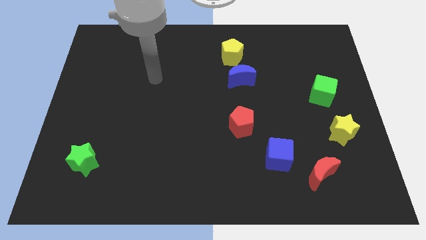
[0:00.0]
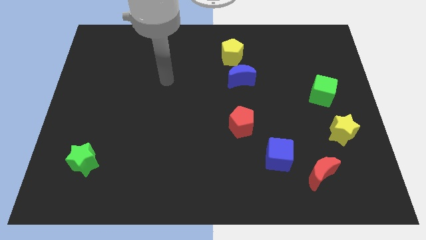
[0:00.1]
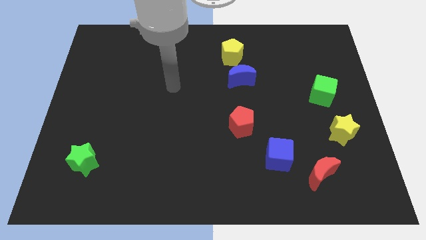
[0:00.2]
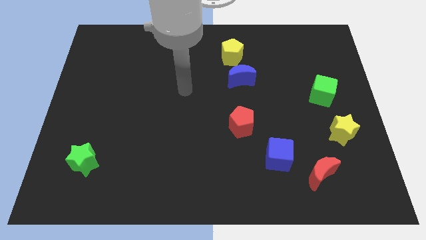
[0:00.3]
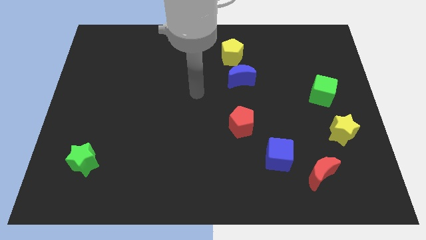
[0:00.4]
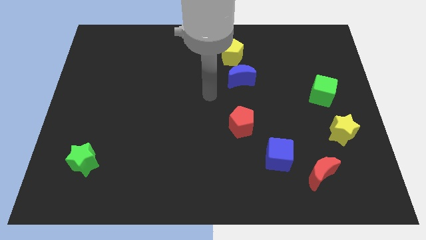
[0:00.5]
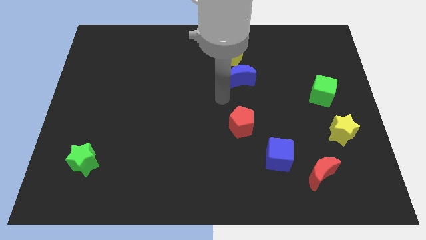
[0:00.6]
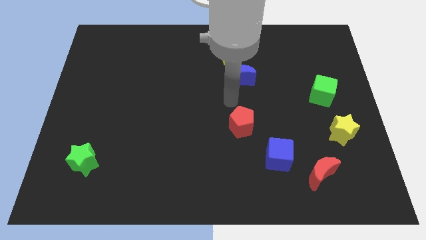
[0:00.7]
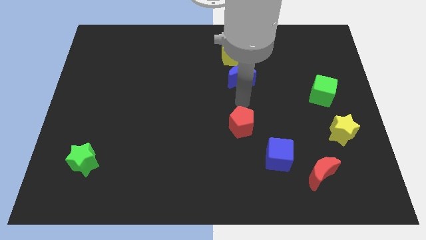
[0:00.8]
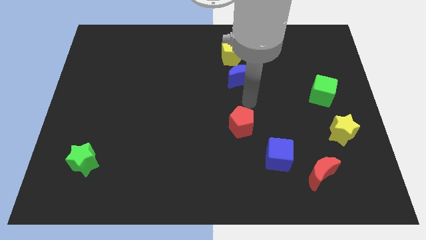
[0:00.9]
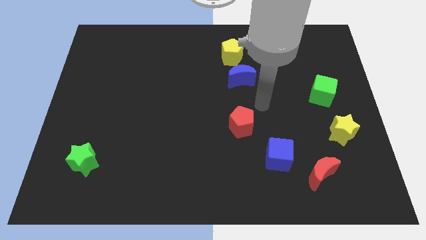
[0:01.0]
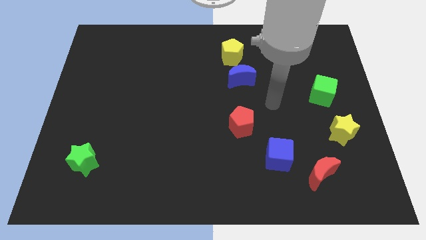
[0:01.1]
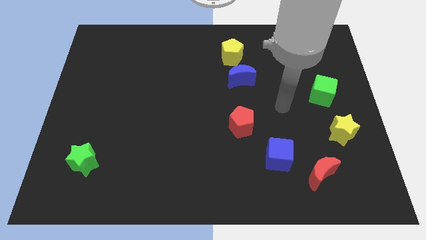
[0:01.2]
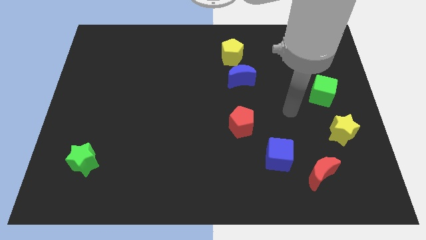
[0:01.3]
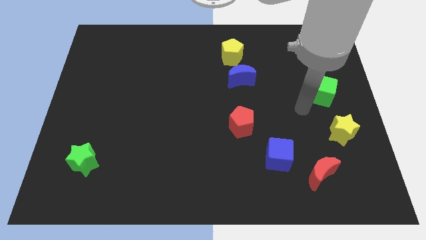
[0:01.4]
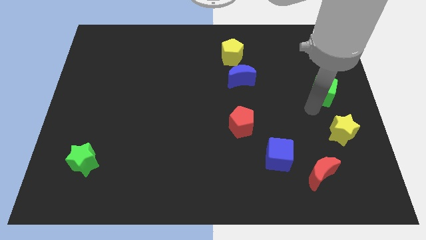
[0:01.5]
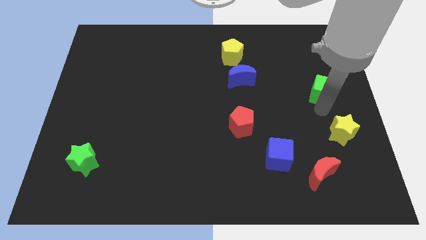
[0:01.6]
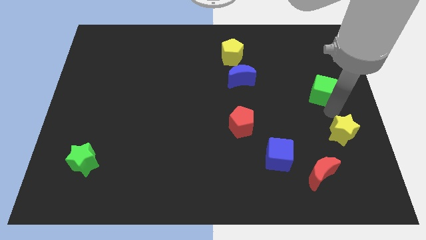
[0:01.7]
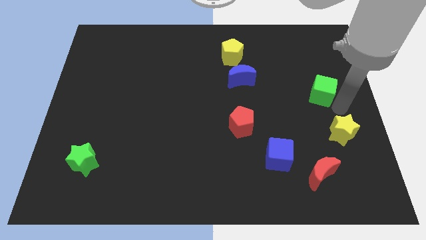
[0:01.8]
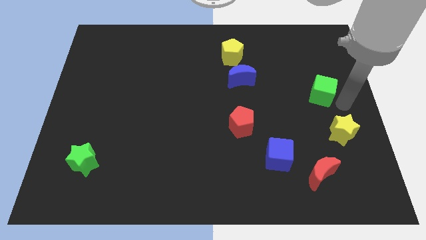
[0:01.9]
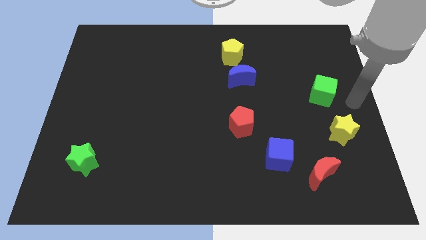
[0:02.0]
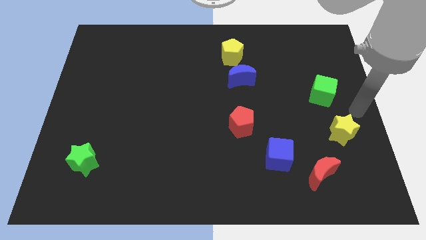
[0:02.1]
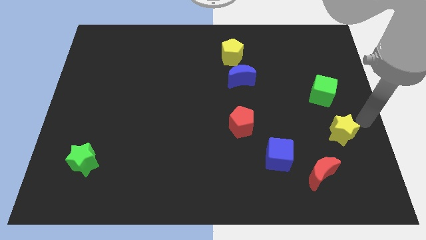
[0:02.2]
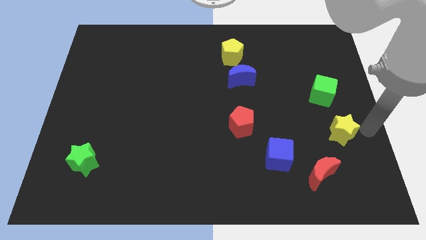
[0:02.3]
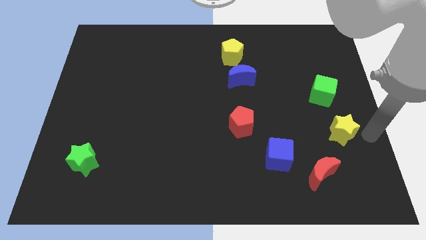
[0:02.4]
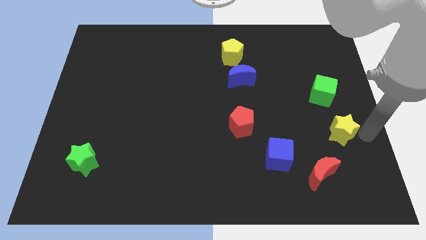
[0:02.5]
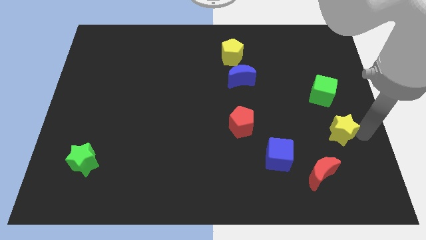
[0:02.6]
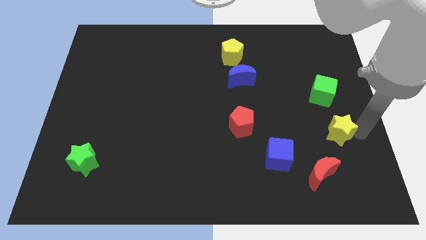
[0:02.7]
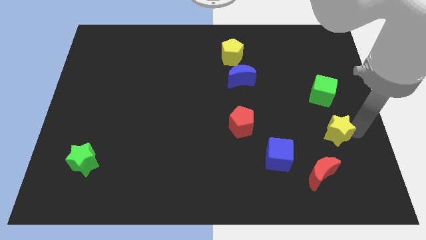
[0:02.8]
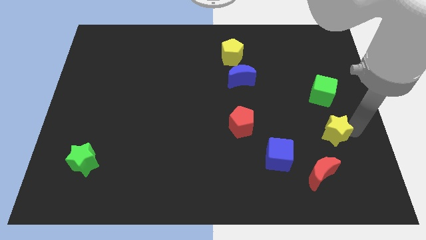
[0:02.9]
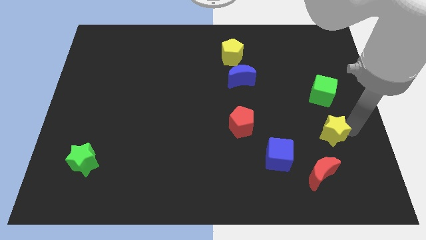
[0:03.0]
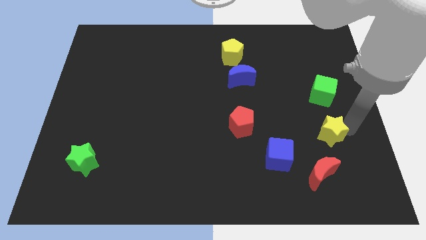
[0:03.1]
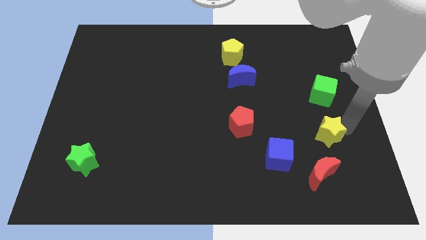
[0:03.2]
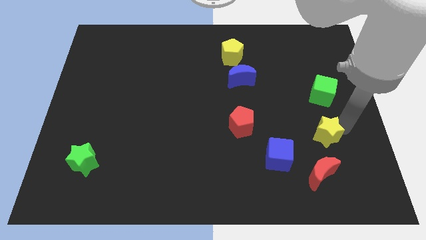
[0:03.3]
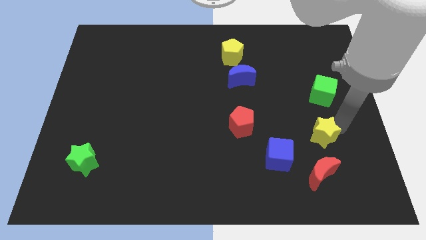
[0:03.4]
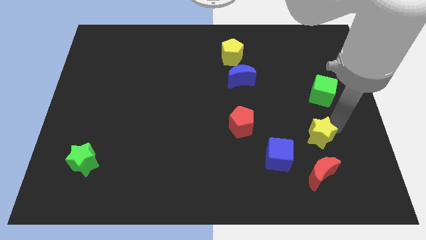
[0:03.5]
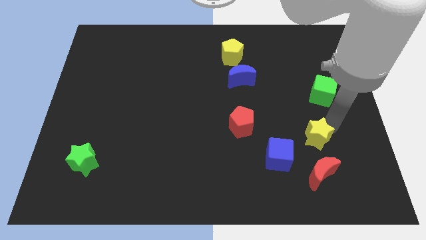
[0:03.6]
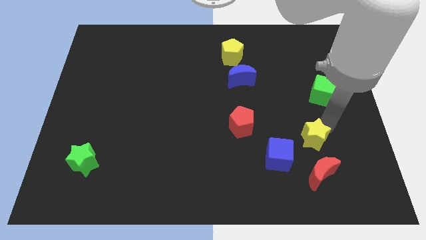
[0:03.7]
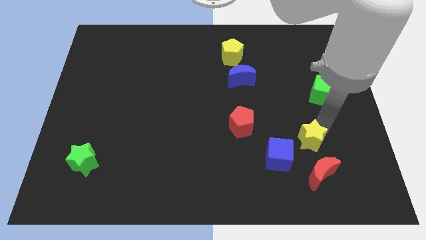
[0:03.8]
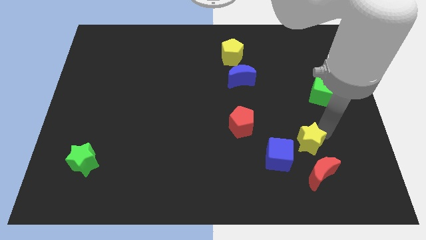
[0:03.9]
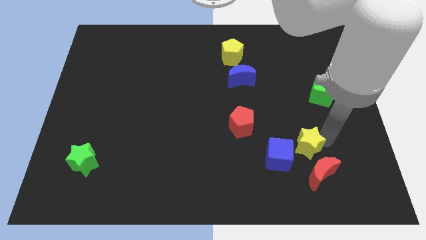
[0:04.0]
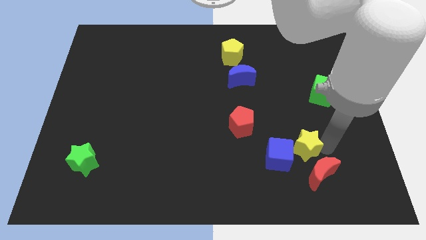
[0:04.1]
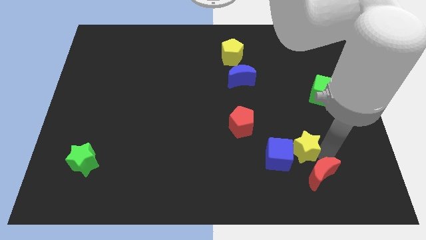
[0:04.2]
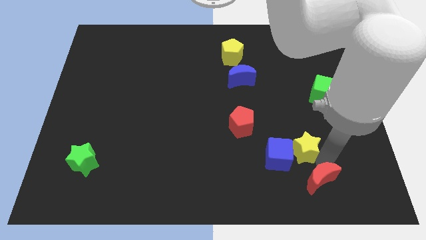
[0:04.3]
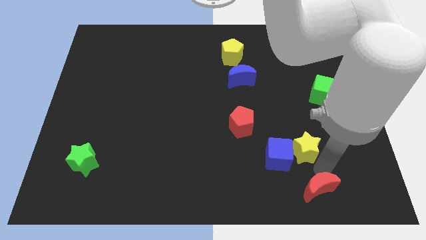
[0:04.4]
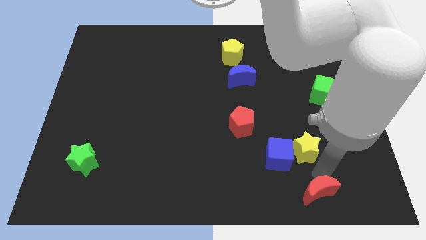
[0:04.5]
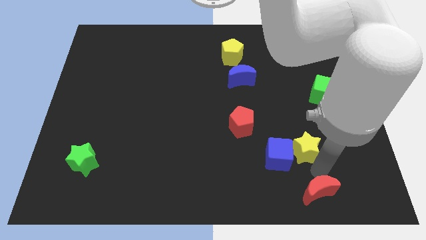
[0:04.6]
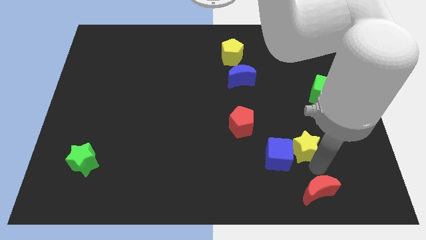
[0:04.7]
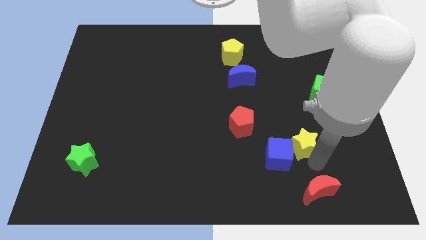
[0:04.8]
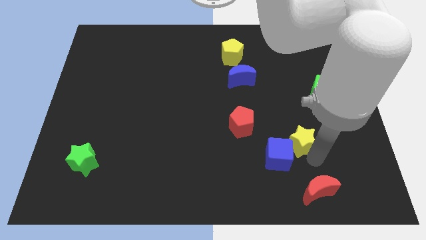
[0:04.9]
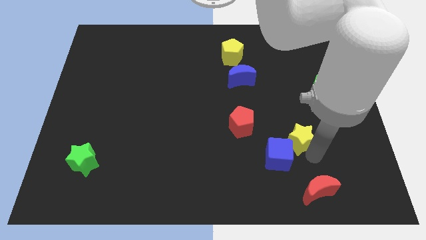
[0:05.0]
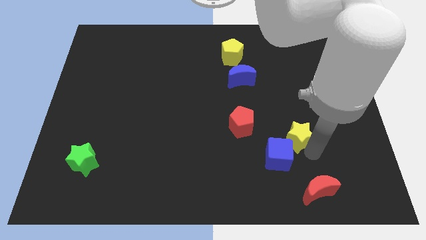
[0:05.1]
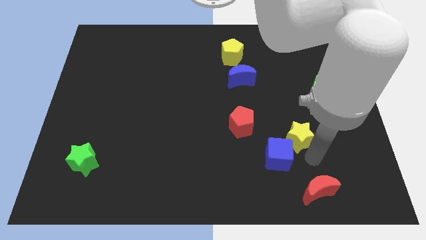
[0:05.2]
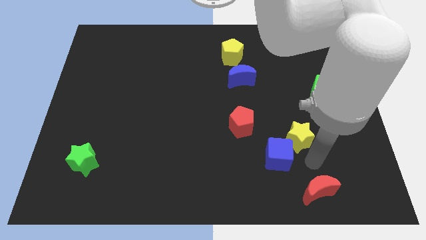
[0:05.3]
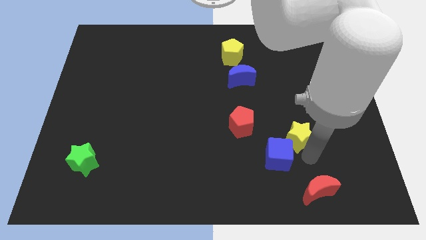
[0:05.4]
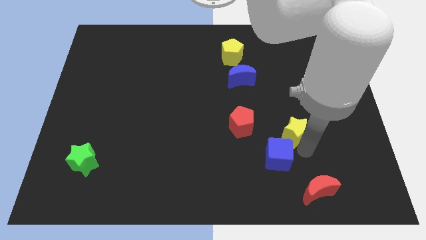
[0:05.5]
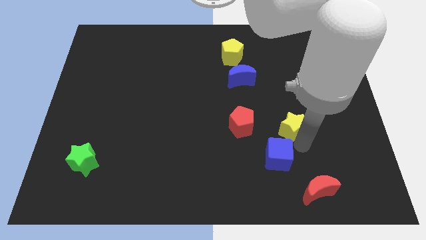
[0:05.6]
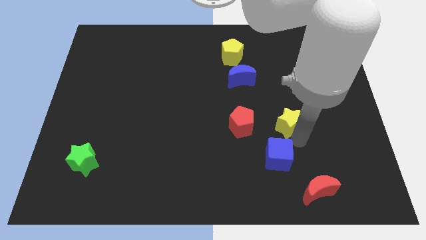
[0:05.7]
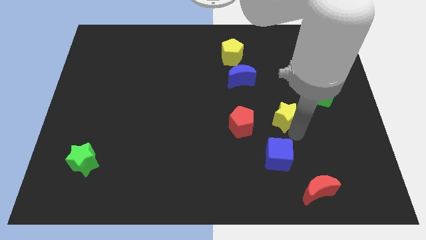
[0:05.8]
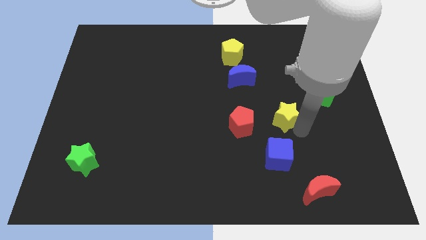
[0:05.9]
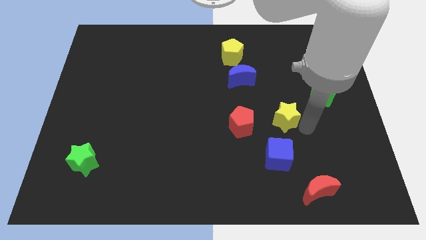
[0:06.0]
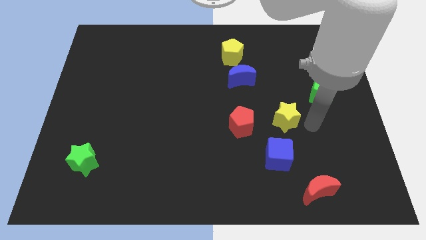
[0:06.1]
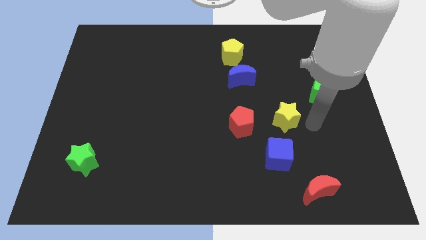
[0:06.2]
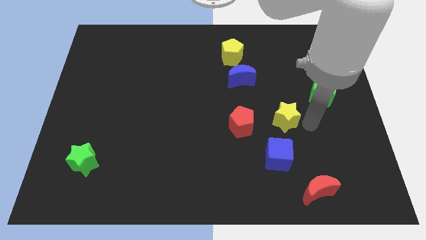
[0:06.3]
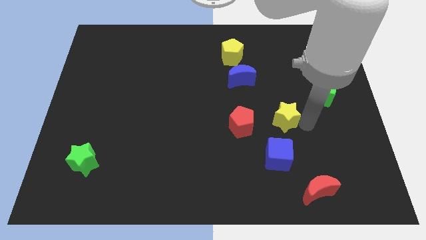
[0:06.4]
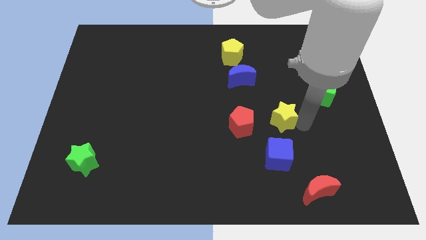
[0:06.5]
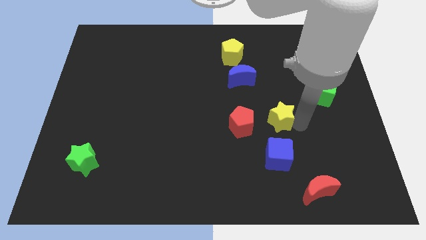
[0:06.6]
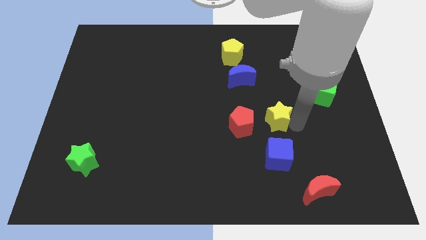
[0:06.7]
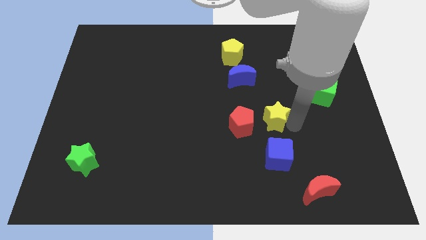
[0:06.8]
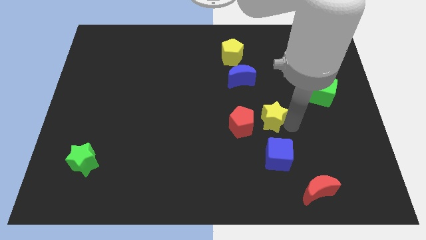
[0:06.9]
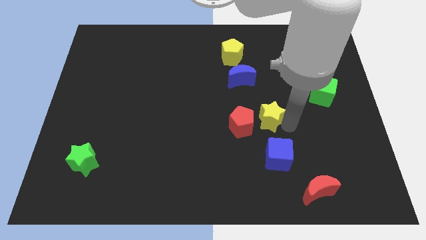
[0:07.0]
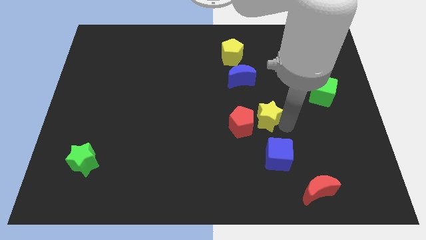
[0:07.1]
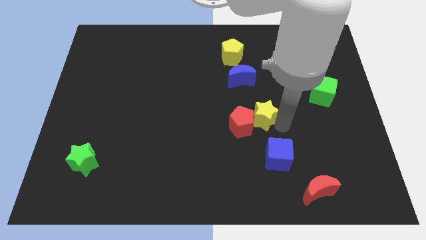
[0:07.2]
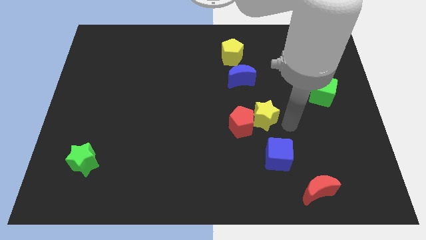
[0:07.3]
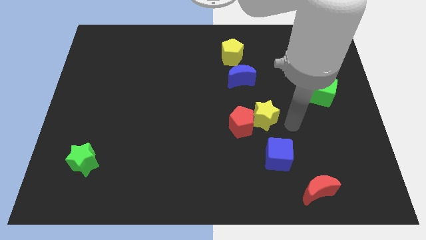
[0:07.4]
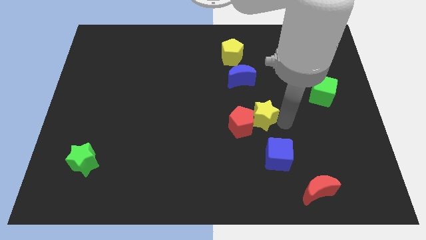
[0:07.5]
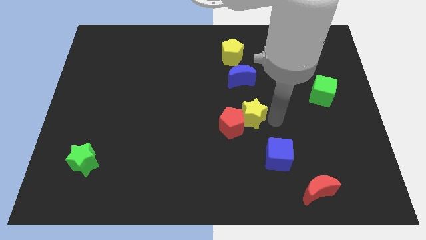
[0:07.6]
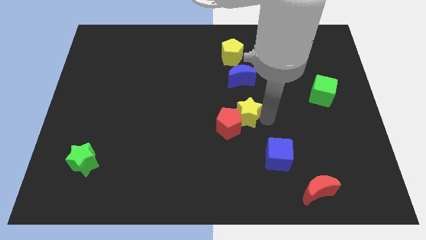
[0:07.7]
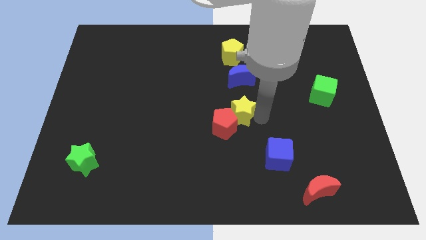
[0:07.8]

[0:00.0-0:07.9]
push the yellow star to the left
